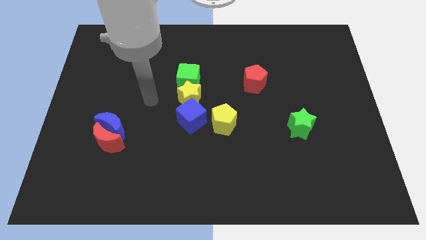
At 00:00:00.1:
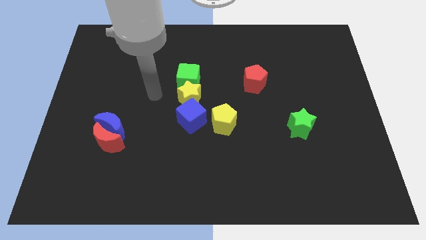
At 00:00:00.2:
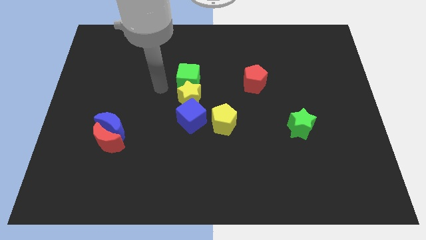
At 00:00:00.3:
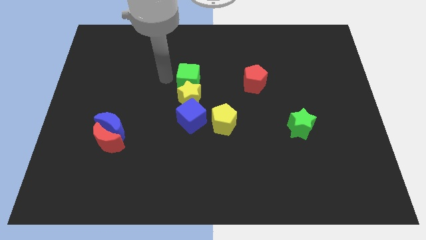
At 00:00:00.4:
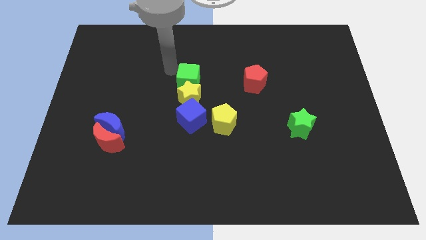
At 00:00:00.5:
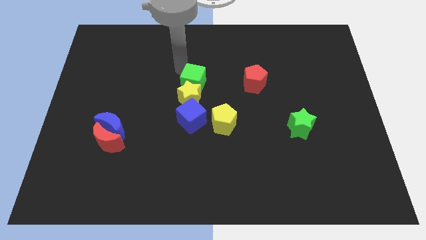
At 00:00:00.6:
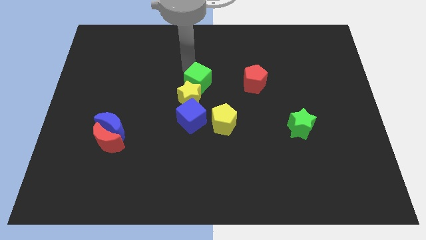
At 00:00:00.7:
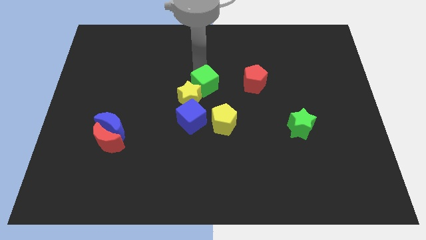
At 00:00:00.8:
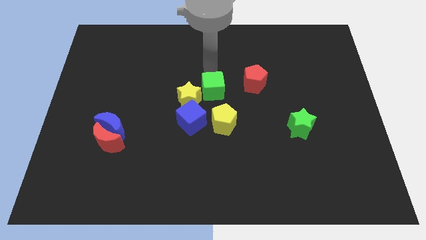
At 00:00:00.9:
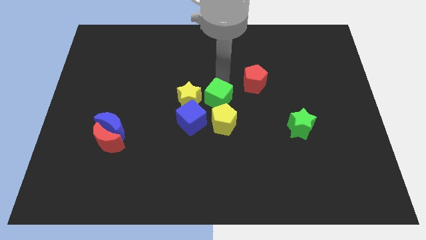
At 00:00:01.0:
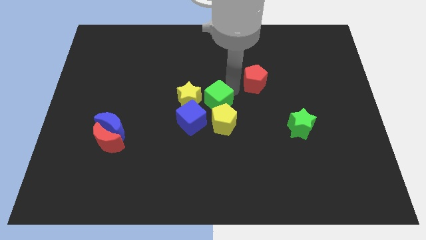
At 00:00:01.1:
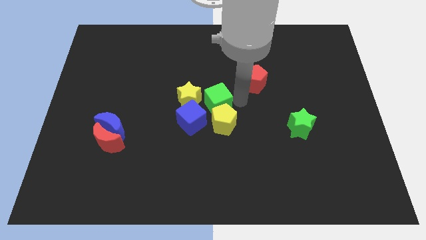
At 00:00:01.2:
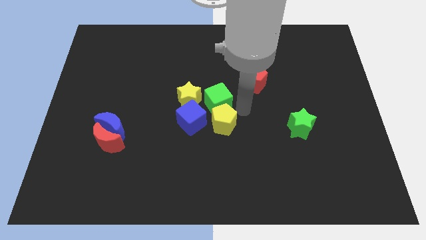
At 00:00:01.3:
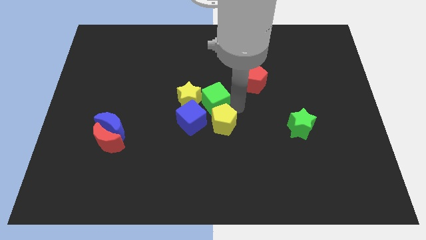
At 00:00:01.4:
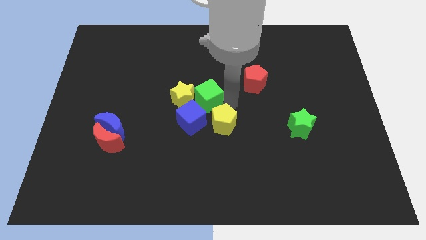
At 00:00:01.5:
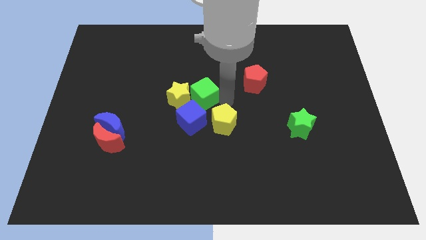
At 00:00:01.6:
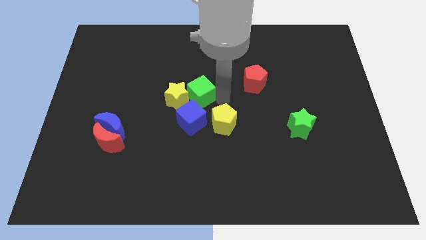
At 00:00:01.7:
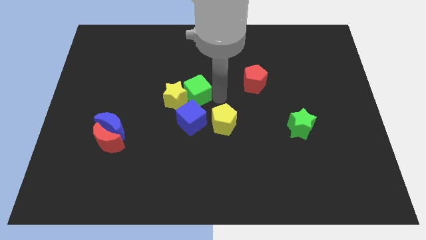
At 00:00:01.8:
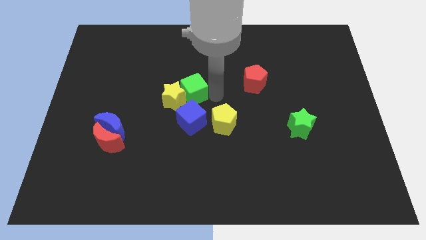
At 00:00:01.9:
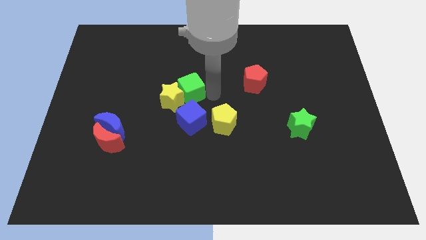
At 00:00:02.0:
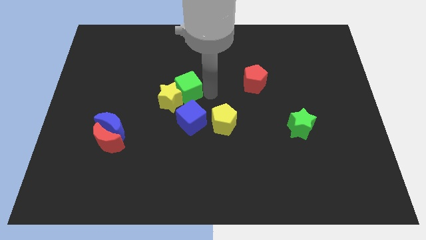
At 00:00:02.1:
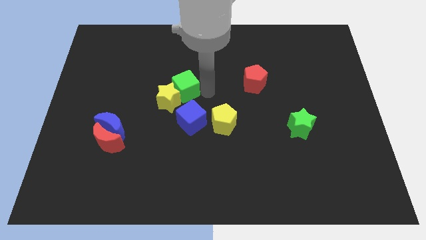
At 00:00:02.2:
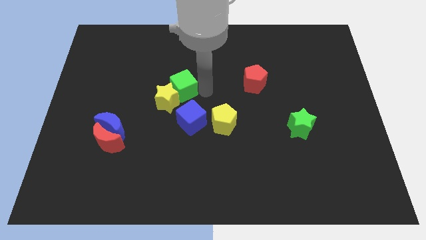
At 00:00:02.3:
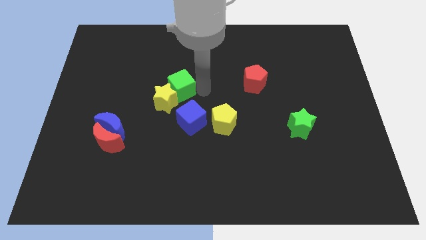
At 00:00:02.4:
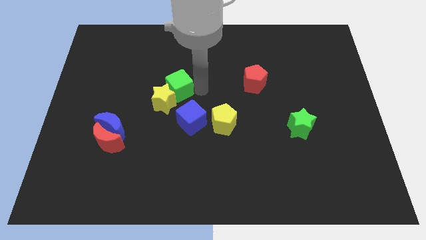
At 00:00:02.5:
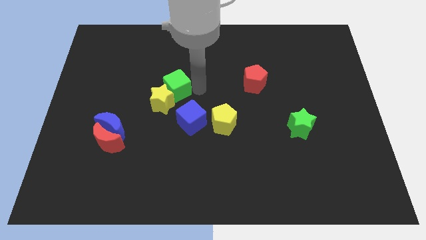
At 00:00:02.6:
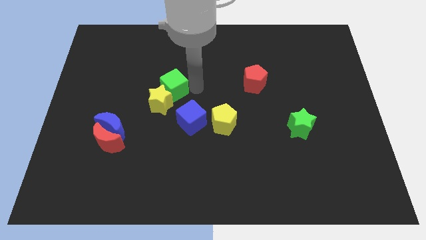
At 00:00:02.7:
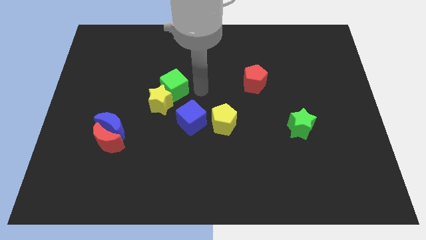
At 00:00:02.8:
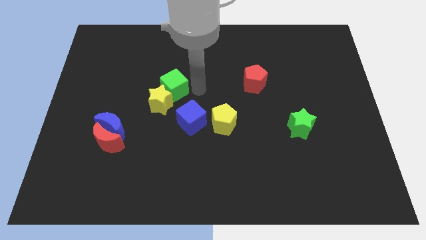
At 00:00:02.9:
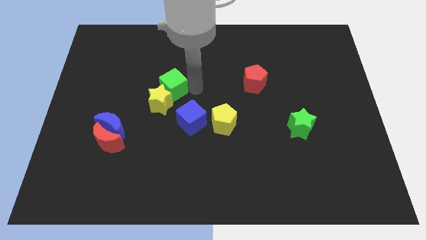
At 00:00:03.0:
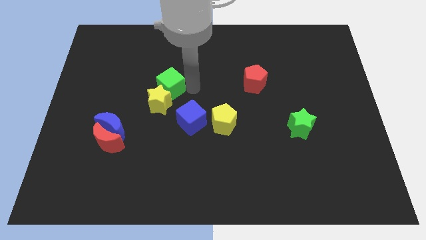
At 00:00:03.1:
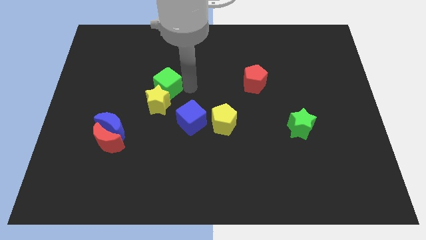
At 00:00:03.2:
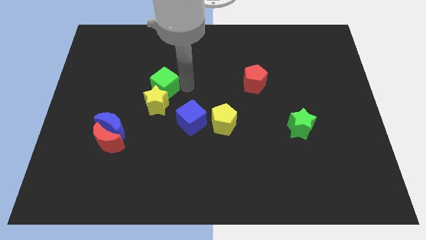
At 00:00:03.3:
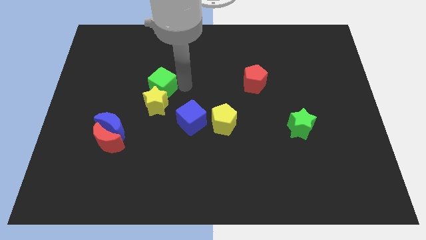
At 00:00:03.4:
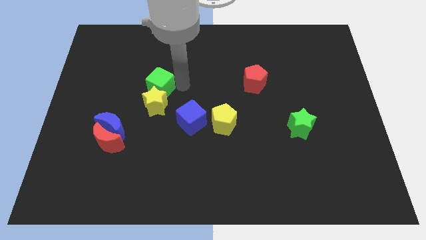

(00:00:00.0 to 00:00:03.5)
slightly move the green cube left

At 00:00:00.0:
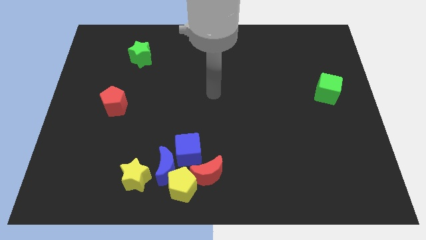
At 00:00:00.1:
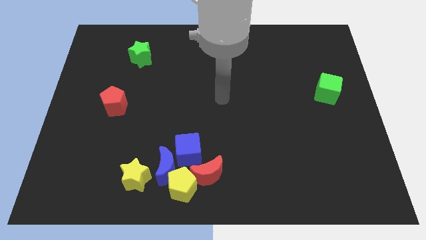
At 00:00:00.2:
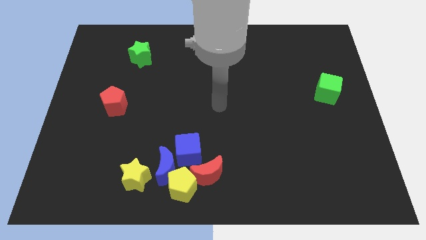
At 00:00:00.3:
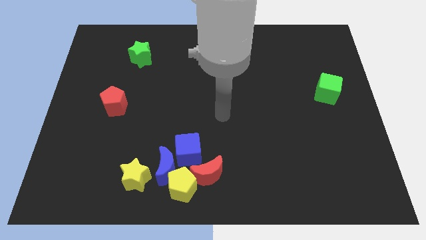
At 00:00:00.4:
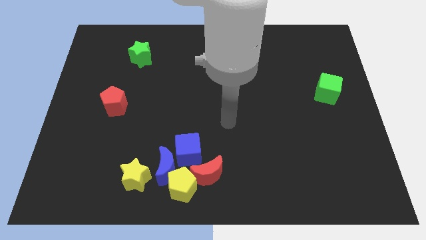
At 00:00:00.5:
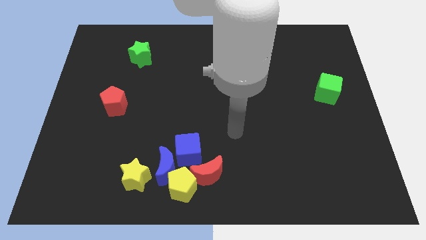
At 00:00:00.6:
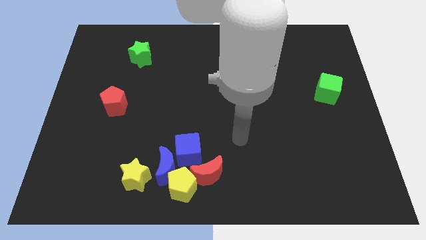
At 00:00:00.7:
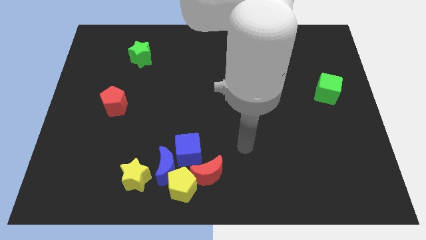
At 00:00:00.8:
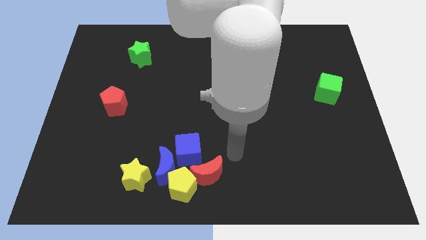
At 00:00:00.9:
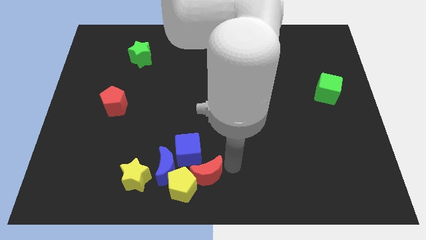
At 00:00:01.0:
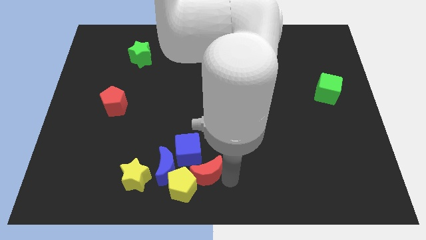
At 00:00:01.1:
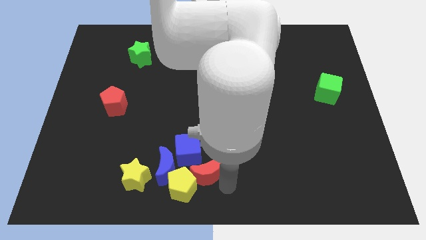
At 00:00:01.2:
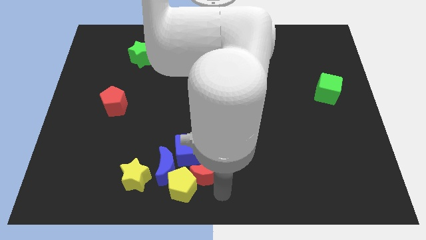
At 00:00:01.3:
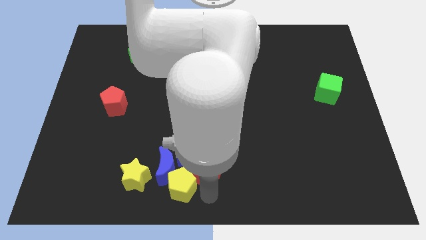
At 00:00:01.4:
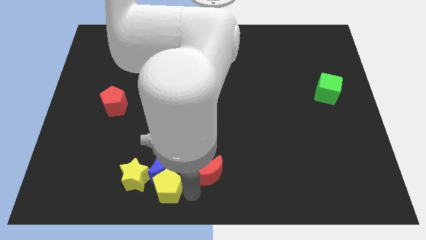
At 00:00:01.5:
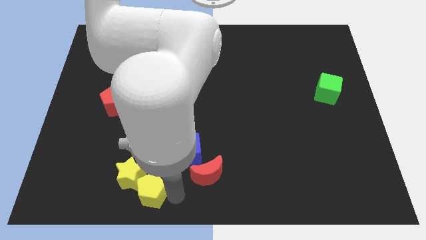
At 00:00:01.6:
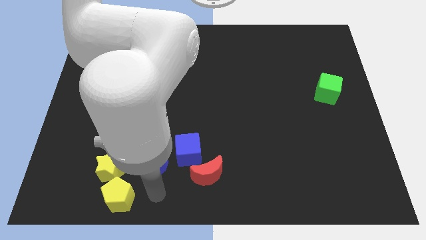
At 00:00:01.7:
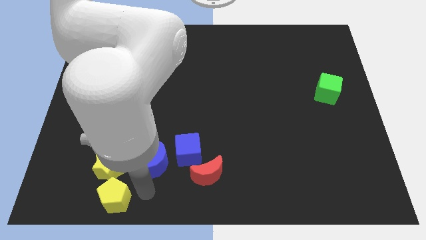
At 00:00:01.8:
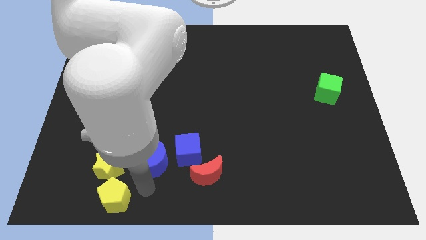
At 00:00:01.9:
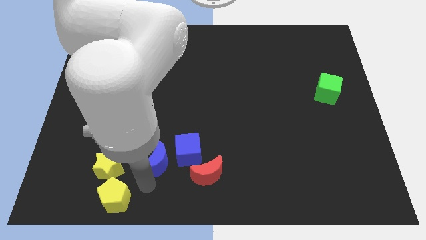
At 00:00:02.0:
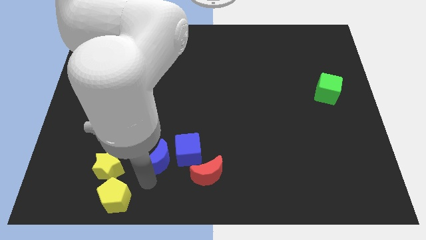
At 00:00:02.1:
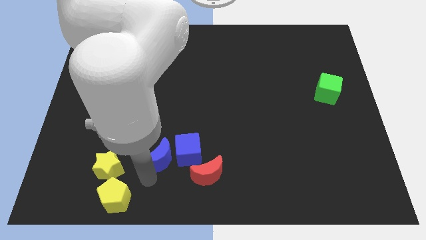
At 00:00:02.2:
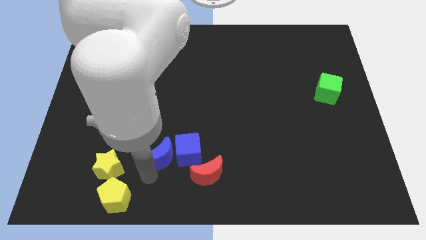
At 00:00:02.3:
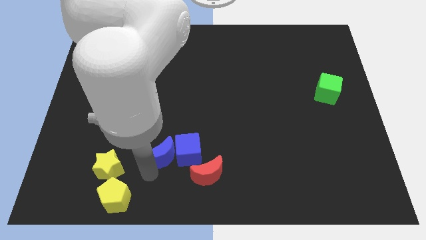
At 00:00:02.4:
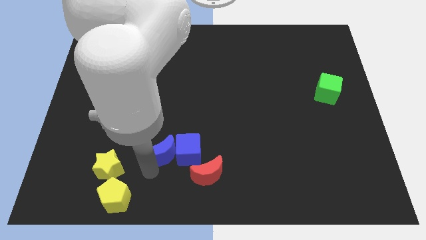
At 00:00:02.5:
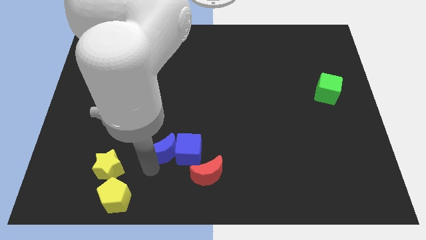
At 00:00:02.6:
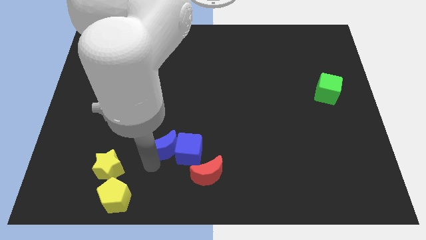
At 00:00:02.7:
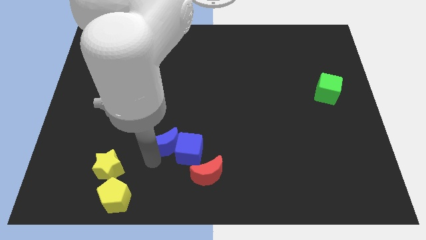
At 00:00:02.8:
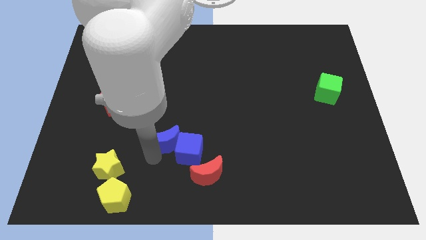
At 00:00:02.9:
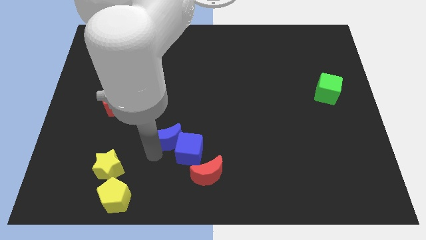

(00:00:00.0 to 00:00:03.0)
slightly move the blue moon up

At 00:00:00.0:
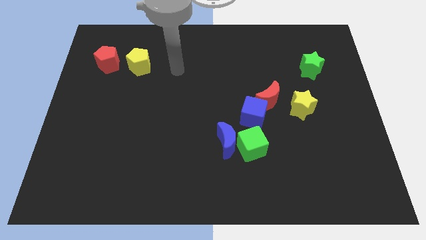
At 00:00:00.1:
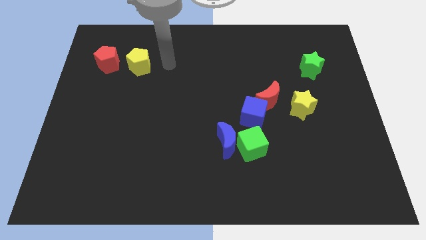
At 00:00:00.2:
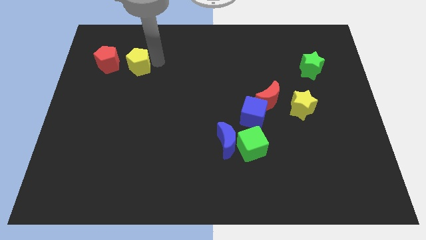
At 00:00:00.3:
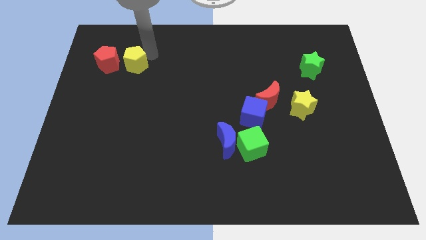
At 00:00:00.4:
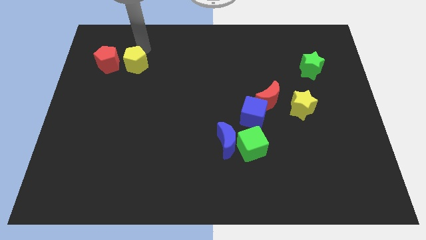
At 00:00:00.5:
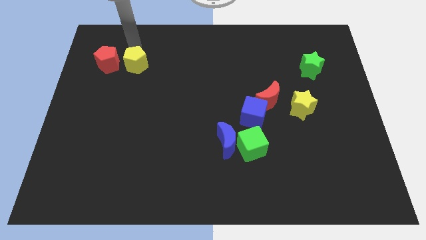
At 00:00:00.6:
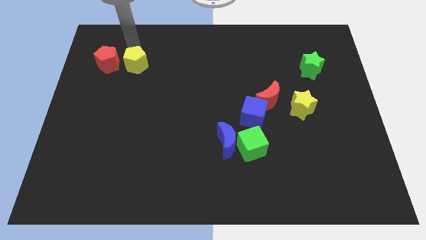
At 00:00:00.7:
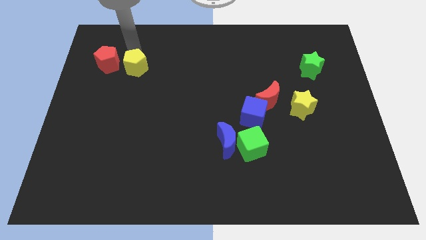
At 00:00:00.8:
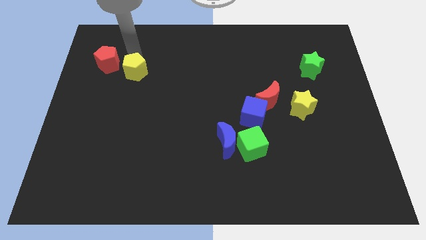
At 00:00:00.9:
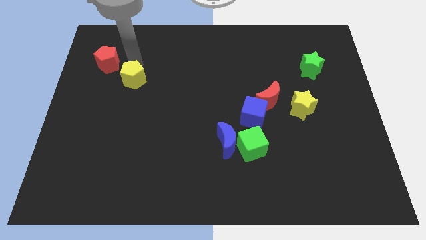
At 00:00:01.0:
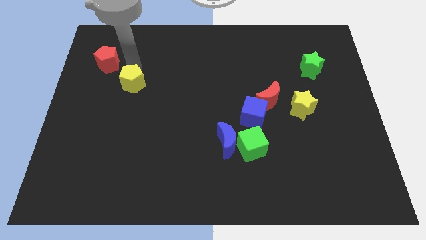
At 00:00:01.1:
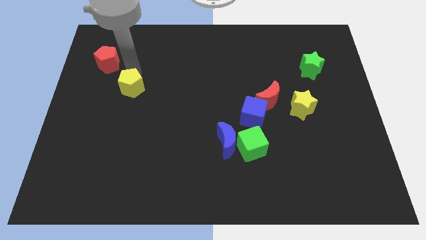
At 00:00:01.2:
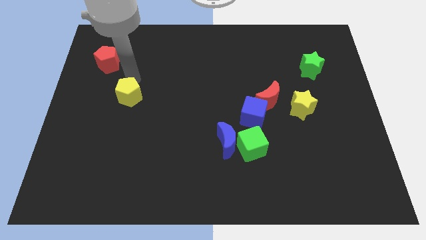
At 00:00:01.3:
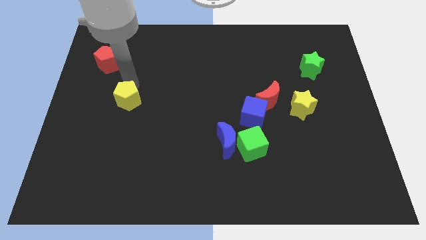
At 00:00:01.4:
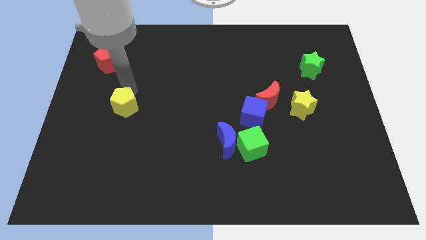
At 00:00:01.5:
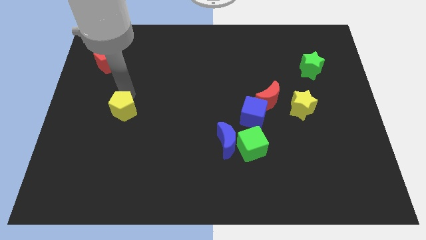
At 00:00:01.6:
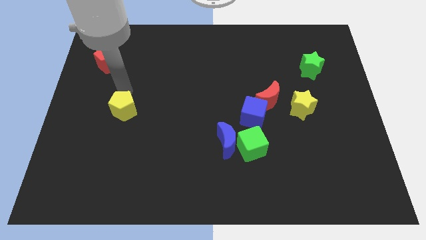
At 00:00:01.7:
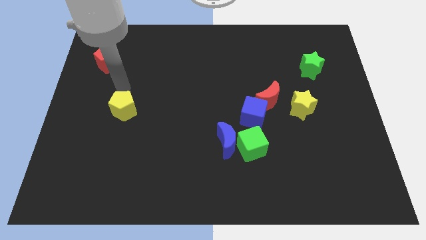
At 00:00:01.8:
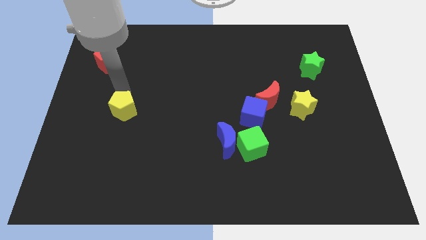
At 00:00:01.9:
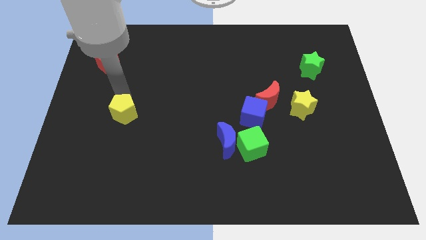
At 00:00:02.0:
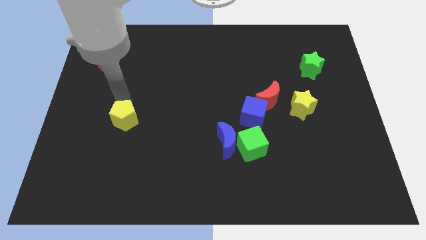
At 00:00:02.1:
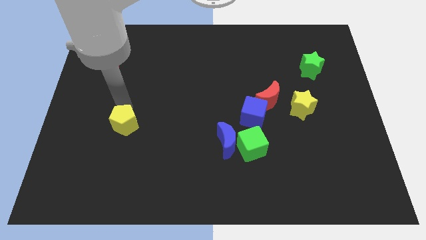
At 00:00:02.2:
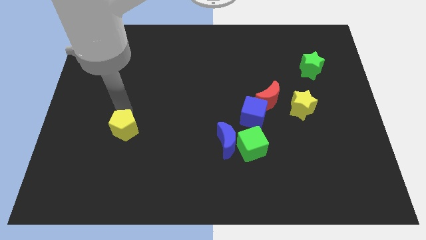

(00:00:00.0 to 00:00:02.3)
slide the yellow pentagon downwards
